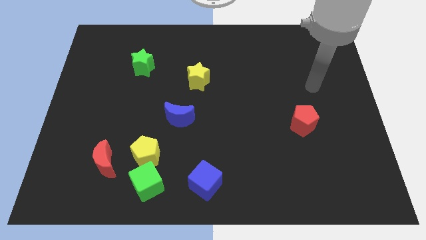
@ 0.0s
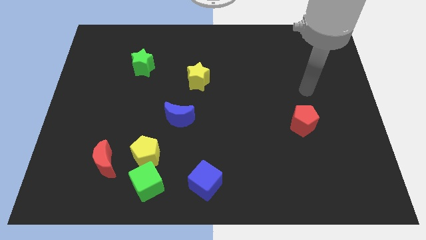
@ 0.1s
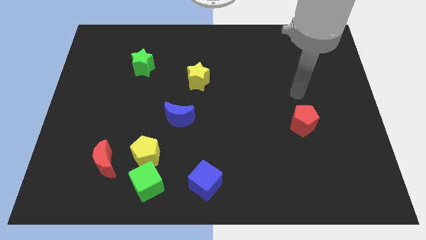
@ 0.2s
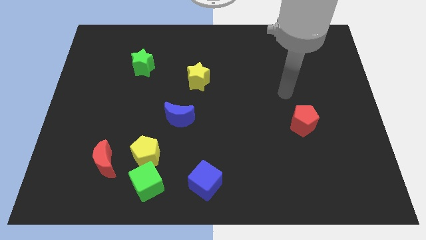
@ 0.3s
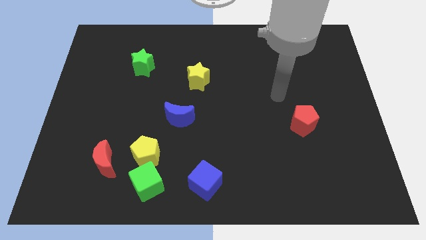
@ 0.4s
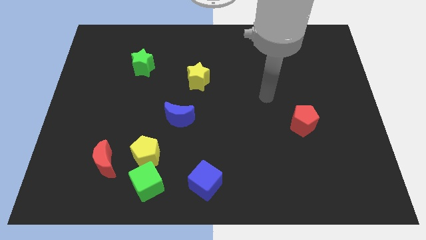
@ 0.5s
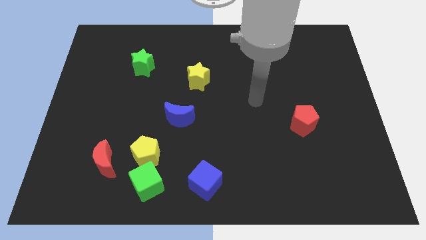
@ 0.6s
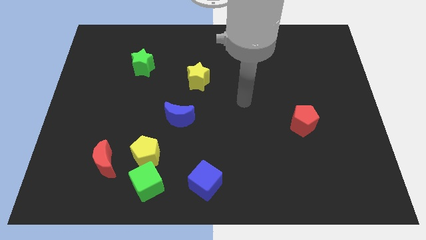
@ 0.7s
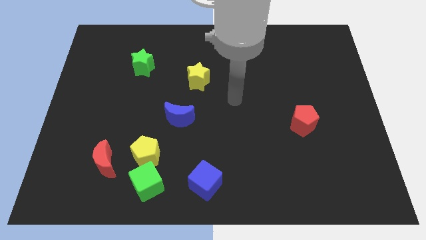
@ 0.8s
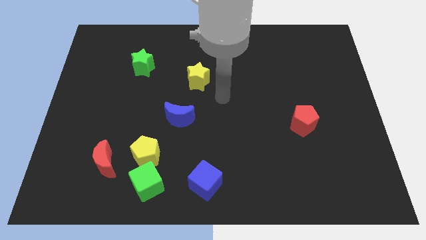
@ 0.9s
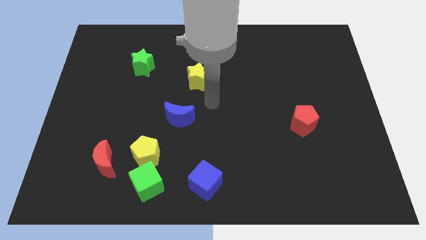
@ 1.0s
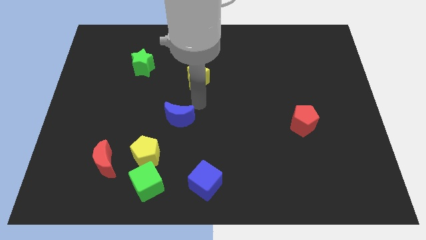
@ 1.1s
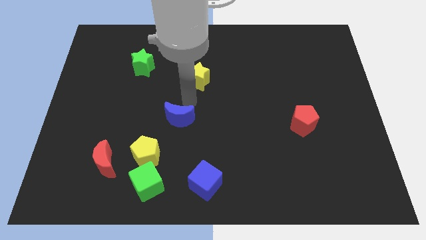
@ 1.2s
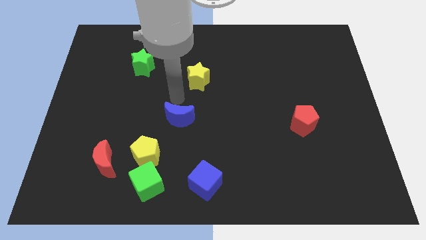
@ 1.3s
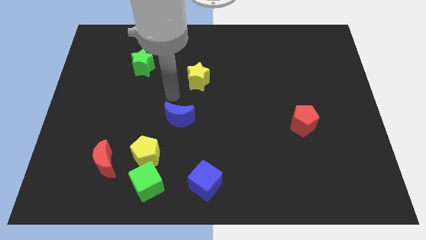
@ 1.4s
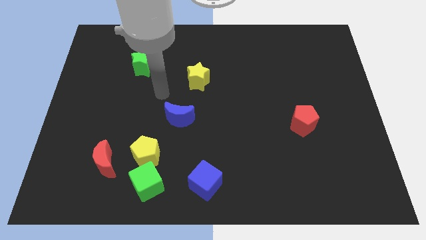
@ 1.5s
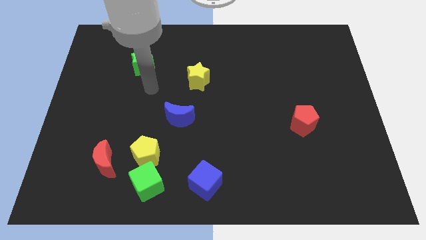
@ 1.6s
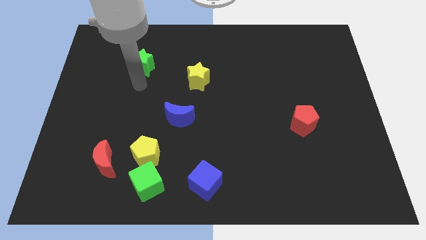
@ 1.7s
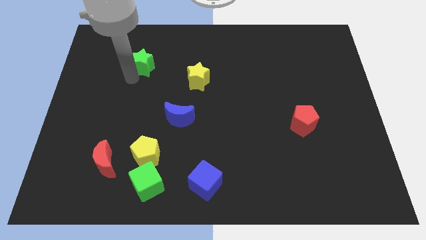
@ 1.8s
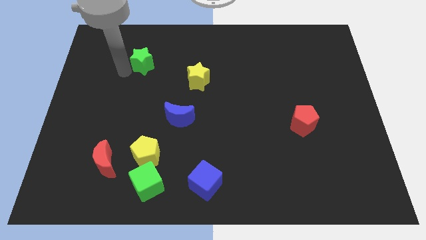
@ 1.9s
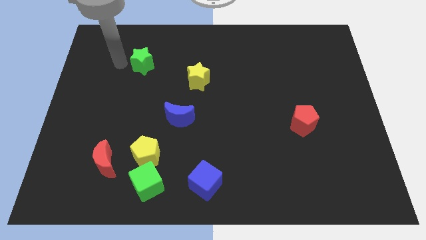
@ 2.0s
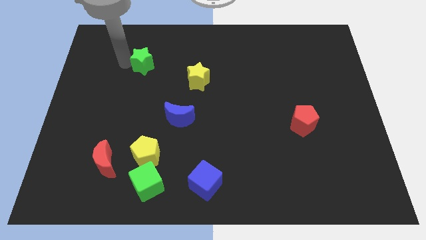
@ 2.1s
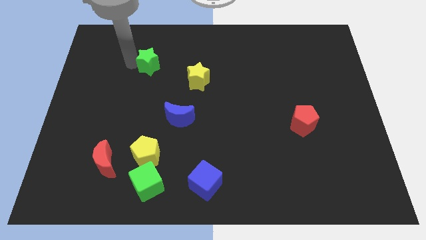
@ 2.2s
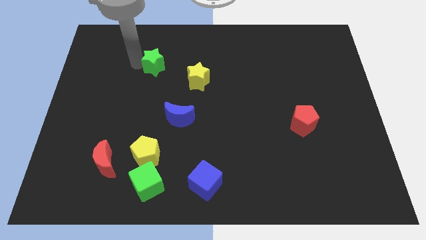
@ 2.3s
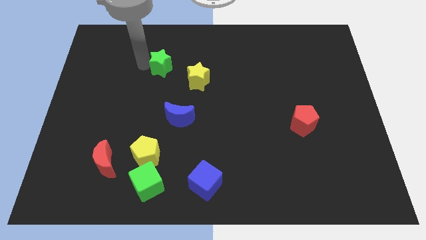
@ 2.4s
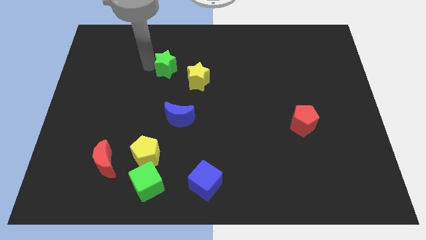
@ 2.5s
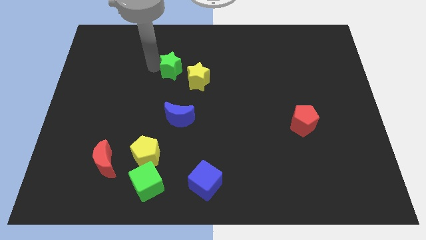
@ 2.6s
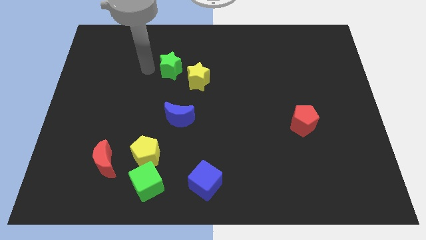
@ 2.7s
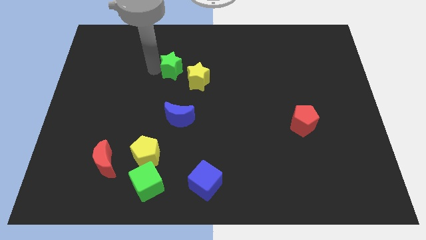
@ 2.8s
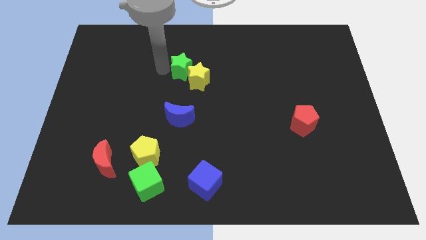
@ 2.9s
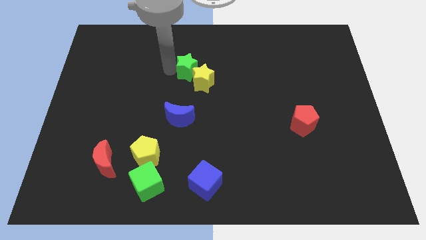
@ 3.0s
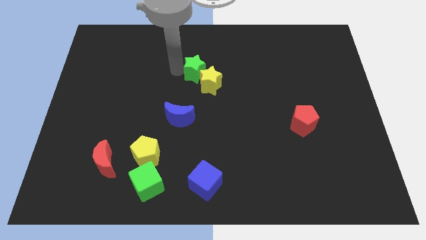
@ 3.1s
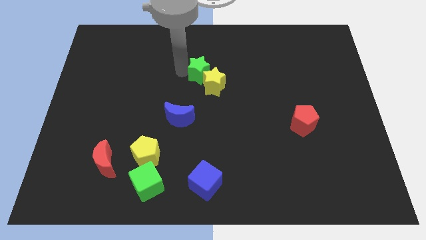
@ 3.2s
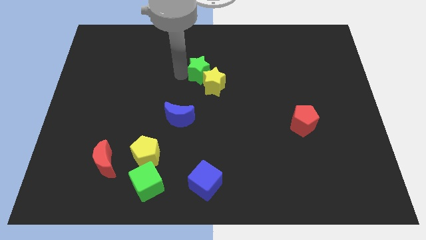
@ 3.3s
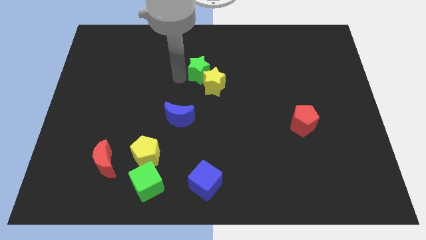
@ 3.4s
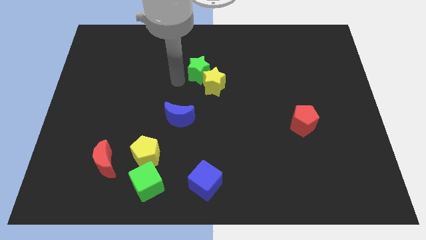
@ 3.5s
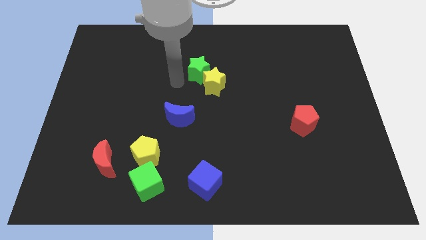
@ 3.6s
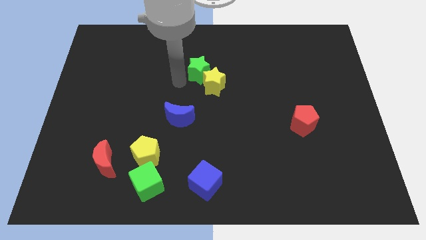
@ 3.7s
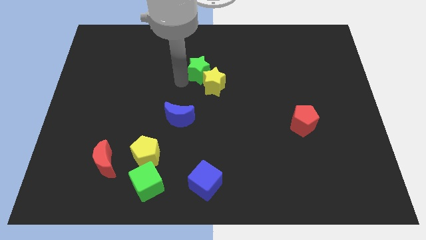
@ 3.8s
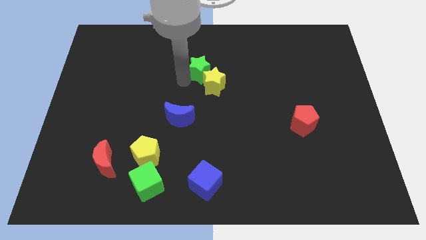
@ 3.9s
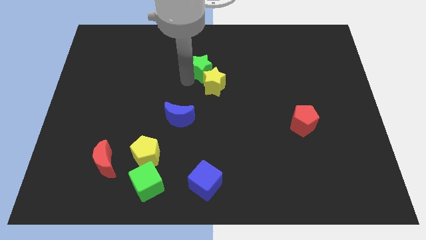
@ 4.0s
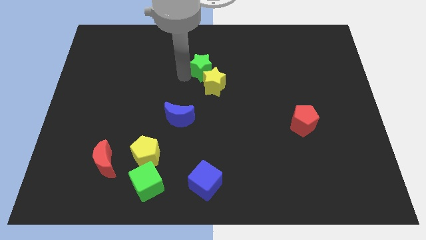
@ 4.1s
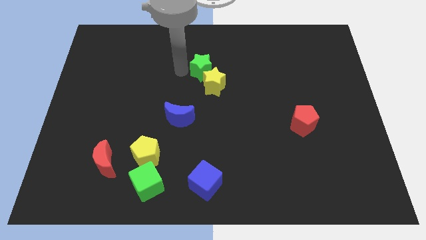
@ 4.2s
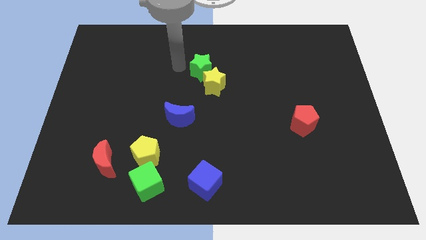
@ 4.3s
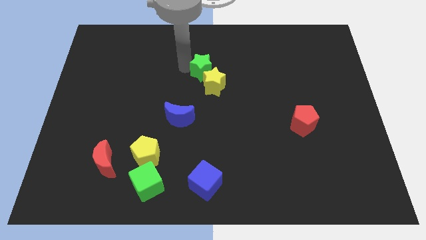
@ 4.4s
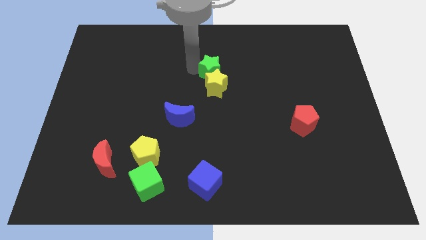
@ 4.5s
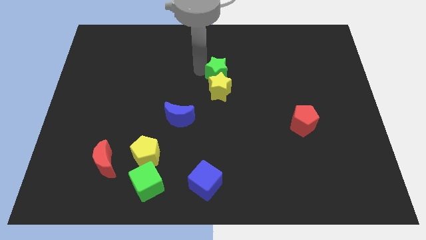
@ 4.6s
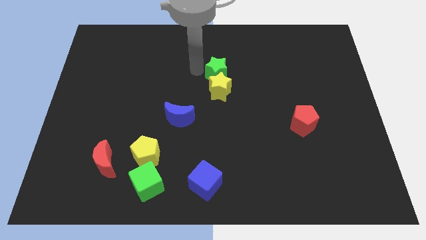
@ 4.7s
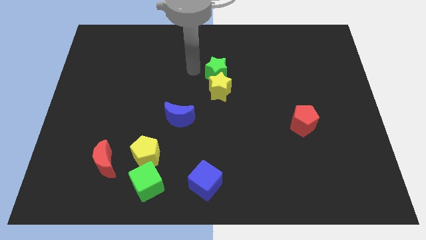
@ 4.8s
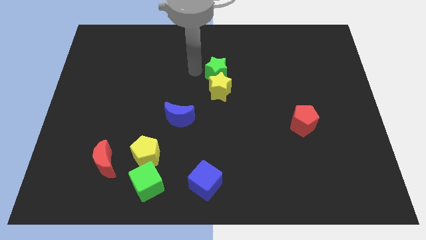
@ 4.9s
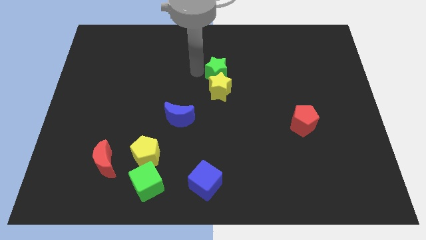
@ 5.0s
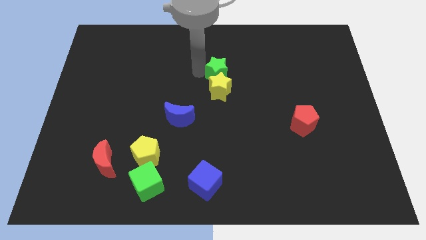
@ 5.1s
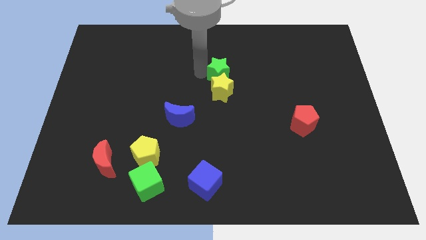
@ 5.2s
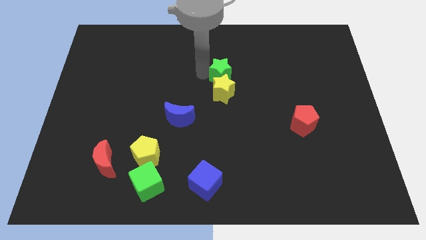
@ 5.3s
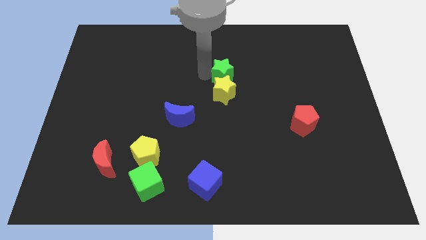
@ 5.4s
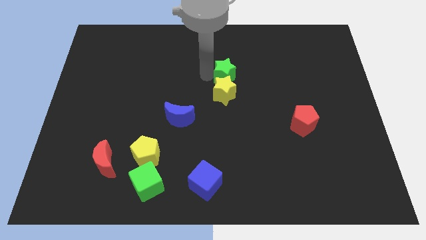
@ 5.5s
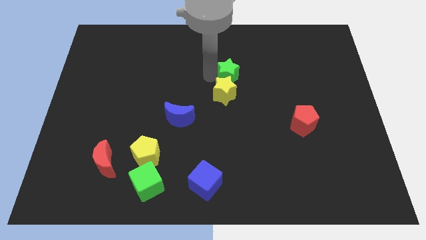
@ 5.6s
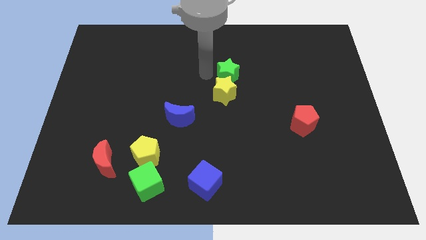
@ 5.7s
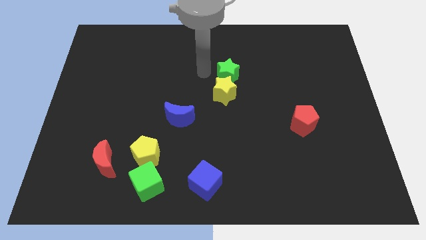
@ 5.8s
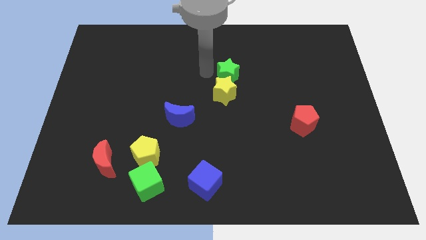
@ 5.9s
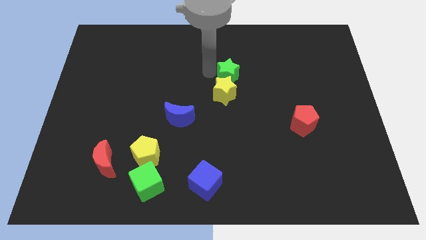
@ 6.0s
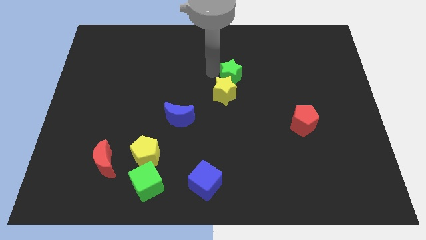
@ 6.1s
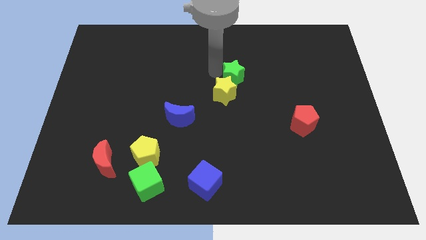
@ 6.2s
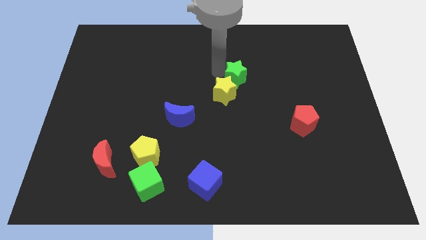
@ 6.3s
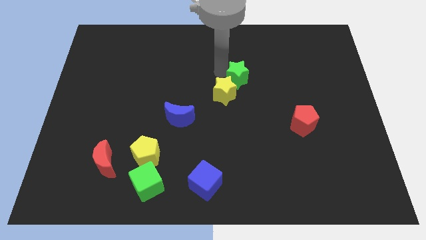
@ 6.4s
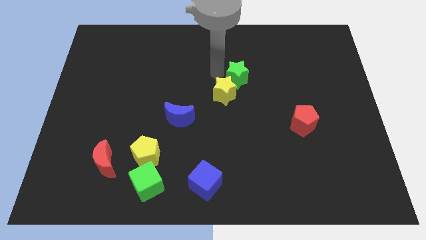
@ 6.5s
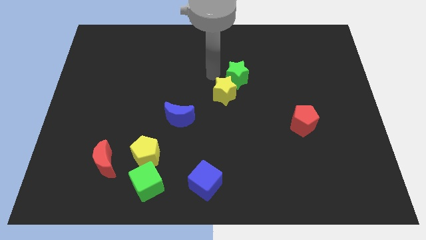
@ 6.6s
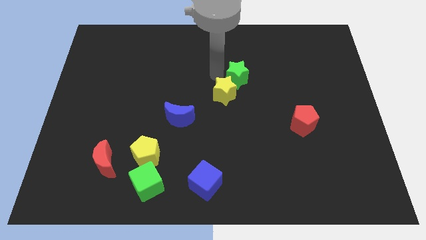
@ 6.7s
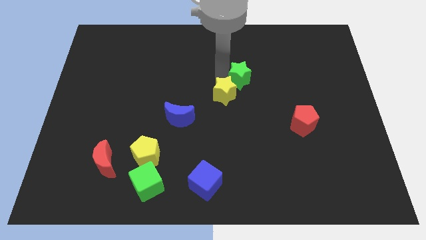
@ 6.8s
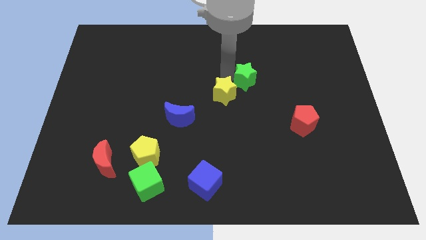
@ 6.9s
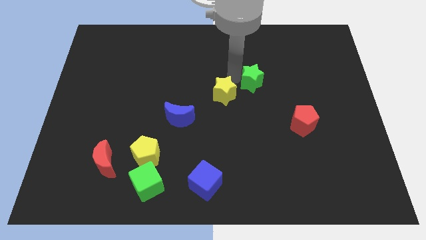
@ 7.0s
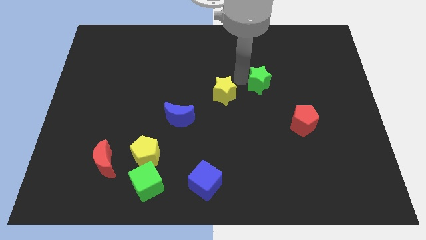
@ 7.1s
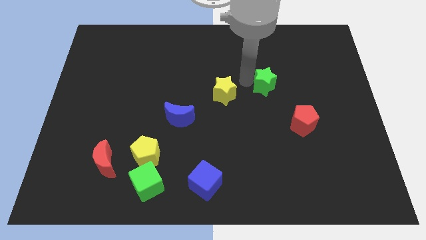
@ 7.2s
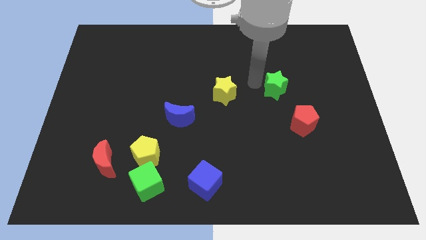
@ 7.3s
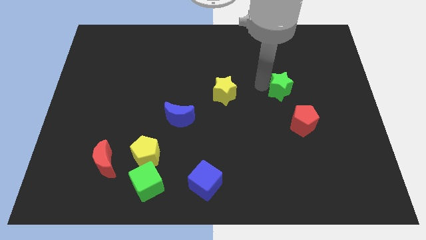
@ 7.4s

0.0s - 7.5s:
put the green star above the red pentagon

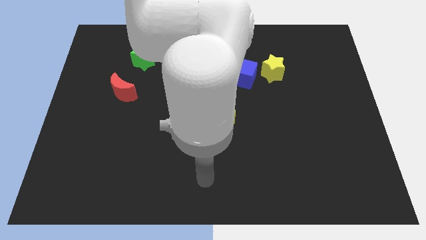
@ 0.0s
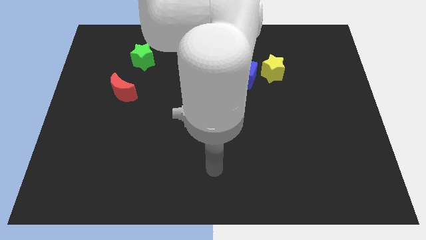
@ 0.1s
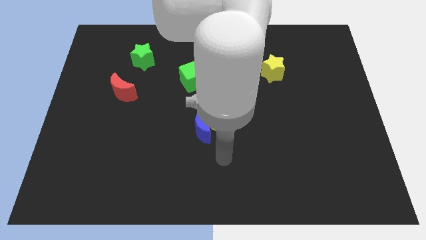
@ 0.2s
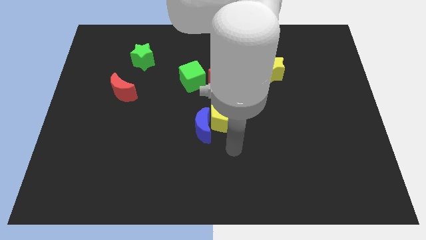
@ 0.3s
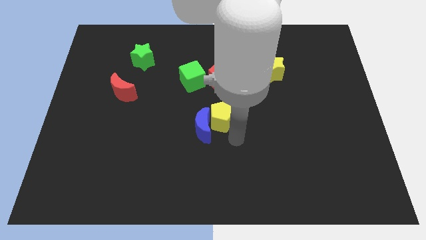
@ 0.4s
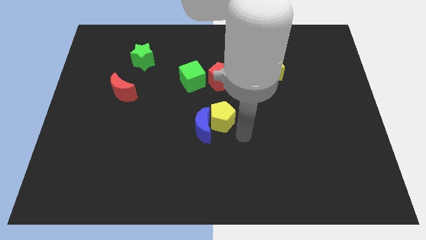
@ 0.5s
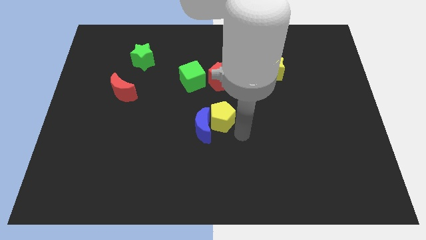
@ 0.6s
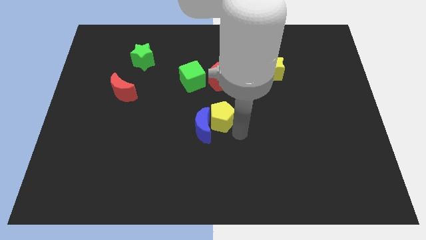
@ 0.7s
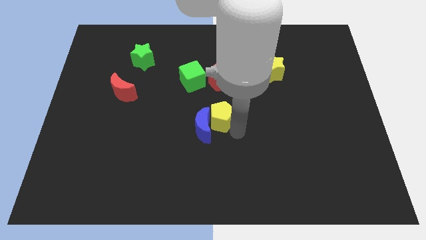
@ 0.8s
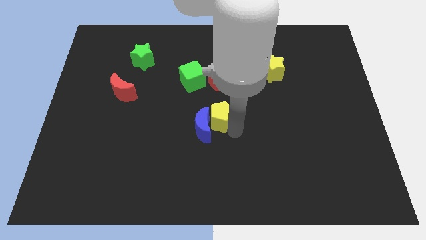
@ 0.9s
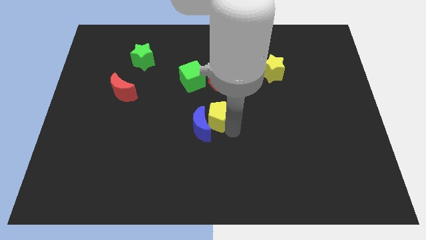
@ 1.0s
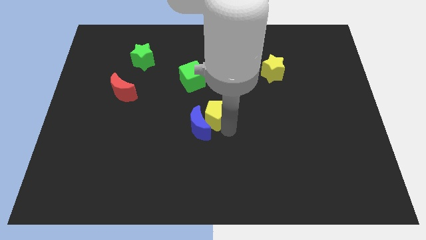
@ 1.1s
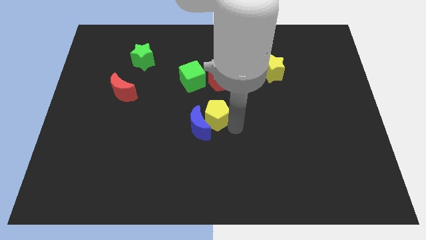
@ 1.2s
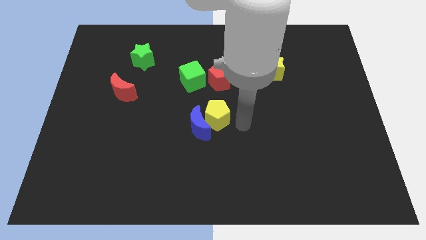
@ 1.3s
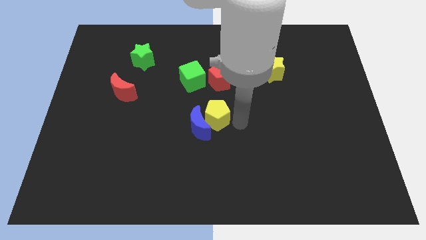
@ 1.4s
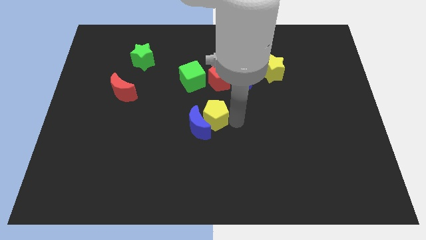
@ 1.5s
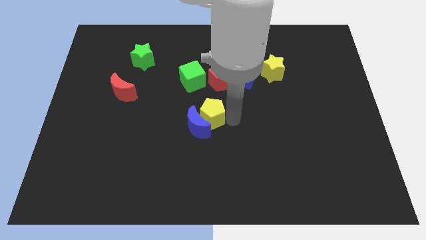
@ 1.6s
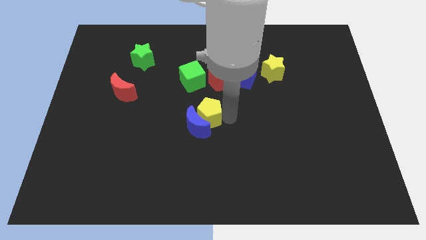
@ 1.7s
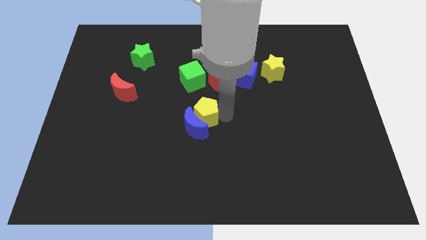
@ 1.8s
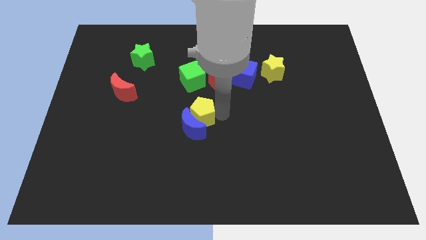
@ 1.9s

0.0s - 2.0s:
move the yellow pentagon to the top left of the blue moon
